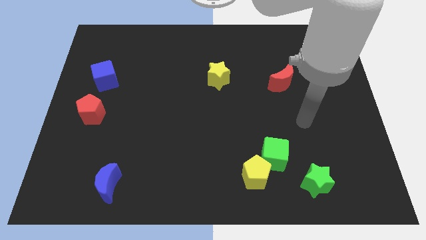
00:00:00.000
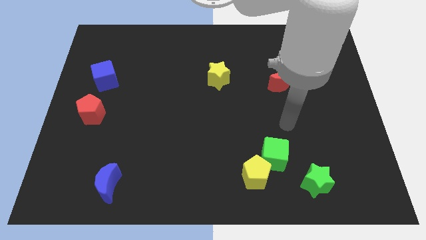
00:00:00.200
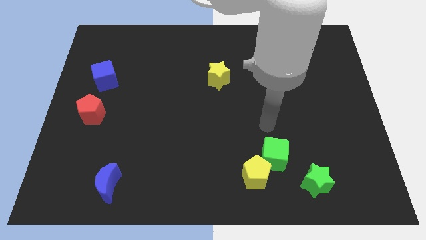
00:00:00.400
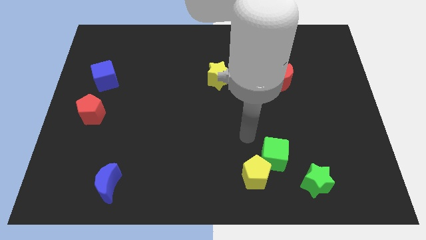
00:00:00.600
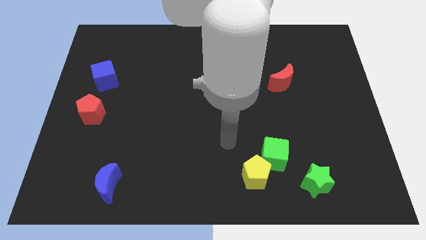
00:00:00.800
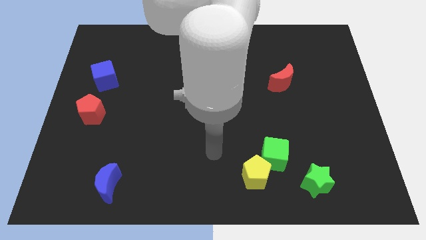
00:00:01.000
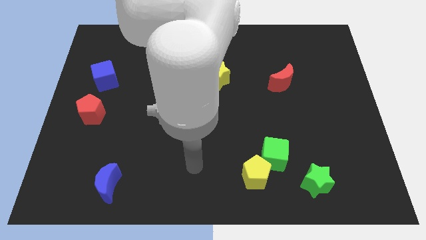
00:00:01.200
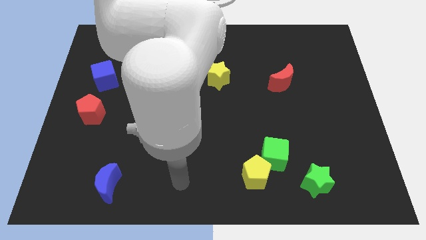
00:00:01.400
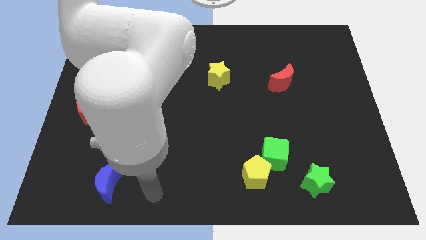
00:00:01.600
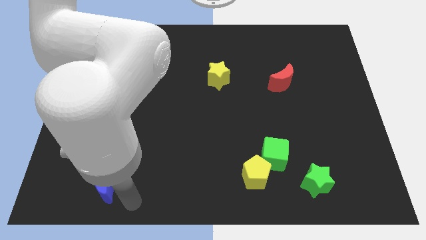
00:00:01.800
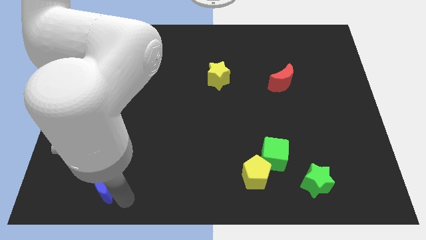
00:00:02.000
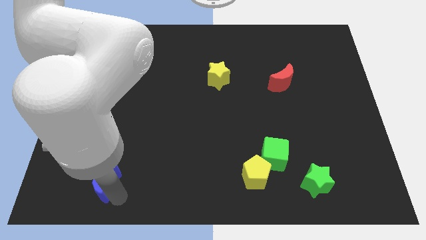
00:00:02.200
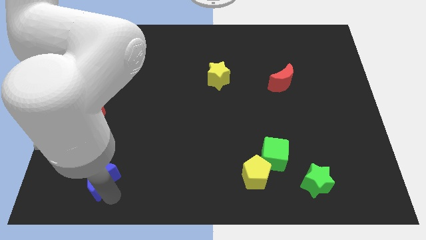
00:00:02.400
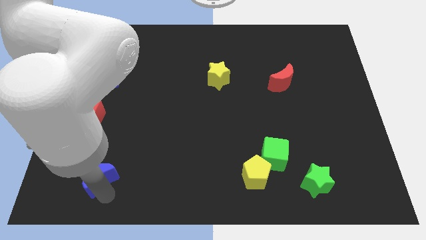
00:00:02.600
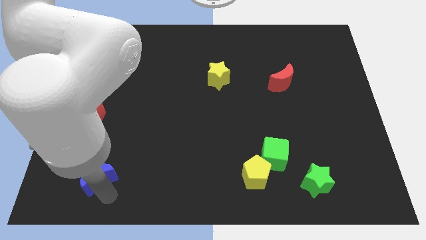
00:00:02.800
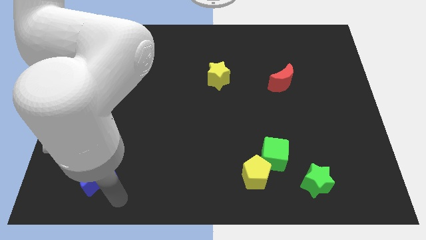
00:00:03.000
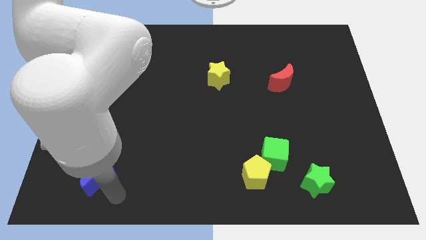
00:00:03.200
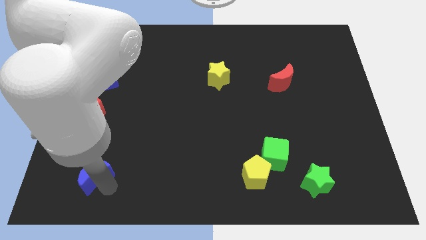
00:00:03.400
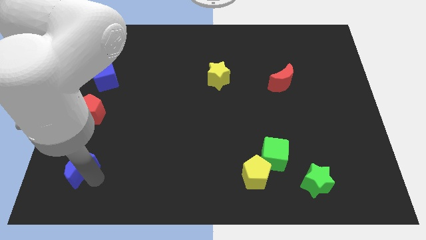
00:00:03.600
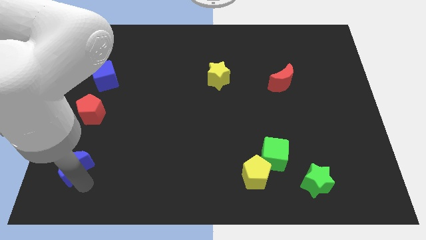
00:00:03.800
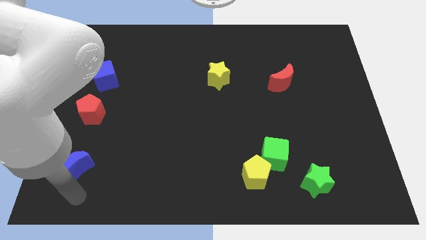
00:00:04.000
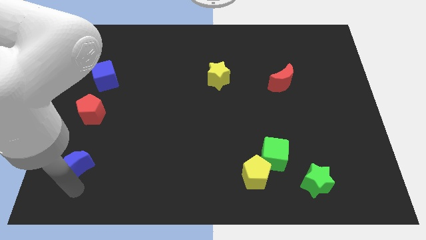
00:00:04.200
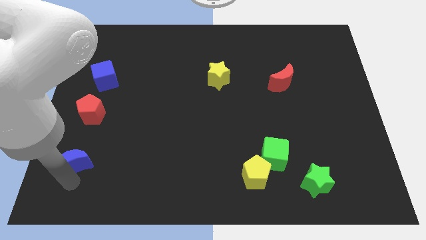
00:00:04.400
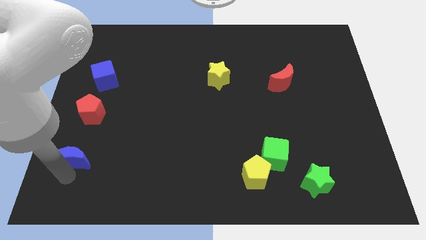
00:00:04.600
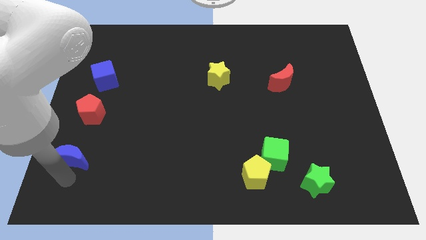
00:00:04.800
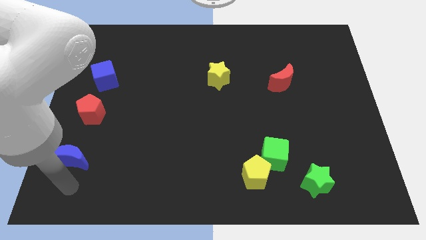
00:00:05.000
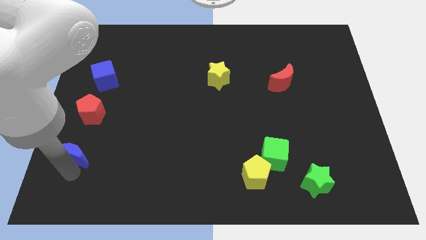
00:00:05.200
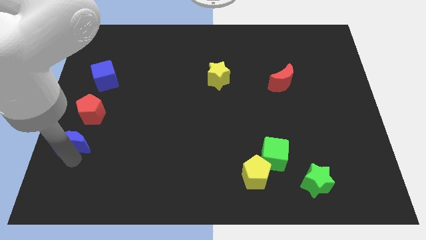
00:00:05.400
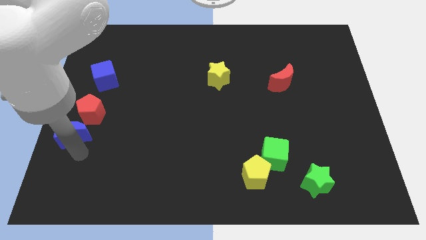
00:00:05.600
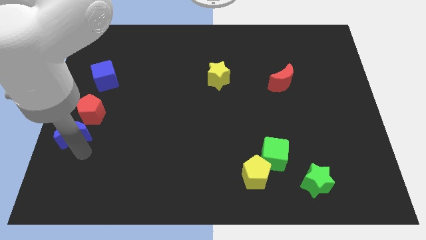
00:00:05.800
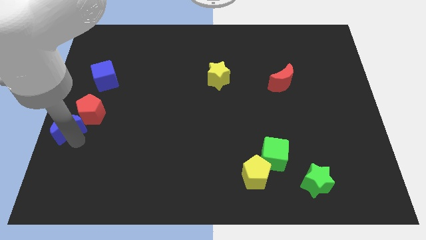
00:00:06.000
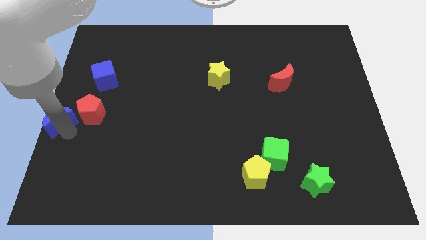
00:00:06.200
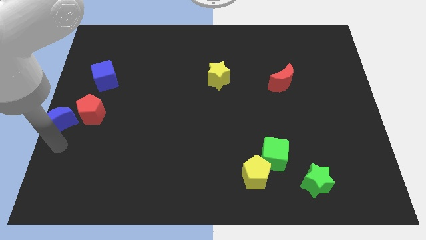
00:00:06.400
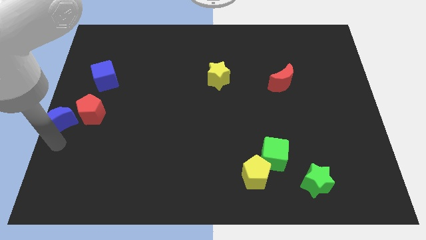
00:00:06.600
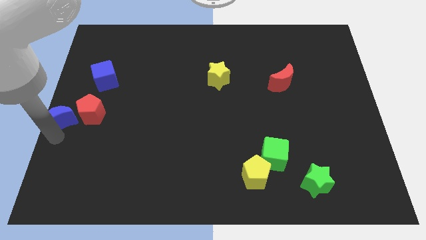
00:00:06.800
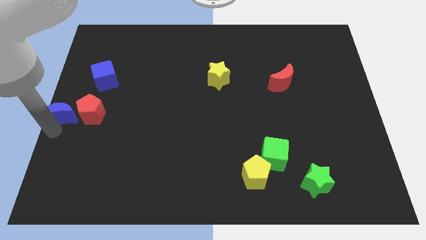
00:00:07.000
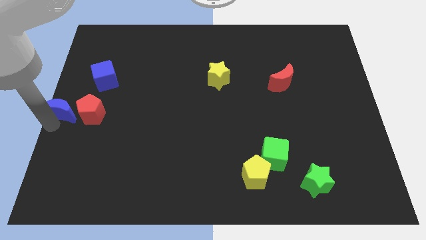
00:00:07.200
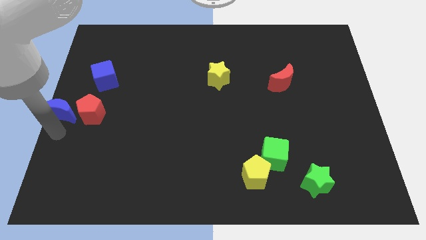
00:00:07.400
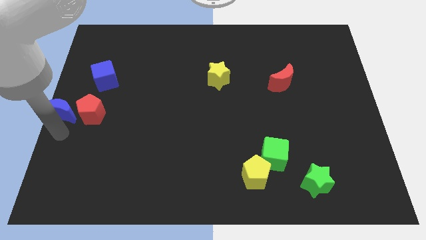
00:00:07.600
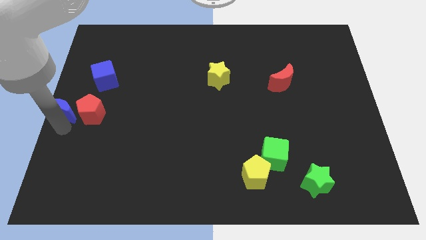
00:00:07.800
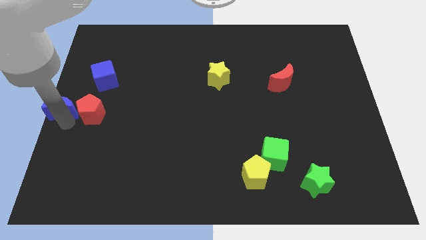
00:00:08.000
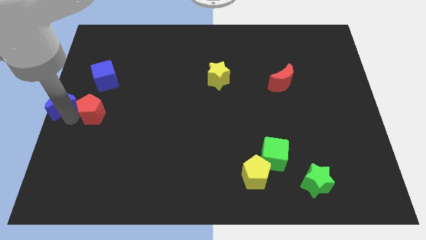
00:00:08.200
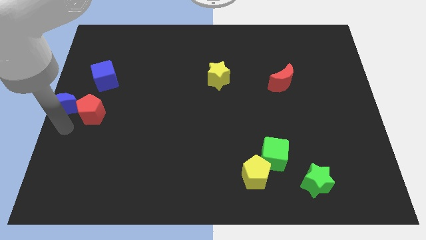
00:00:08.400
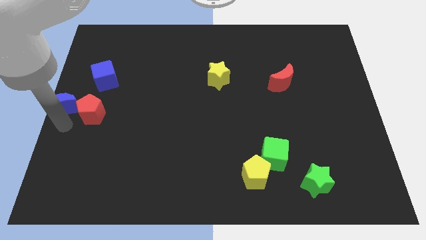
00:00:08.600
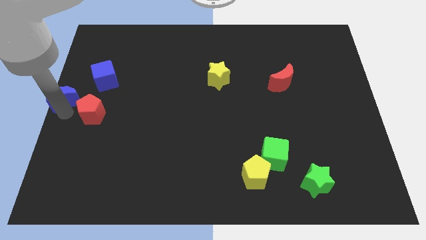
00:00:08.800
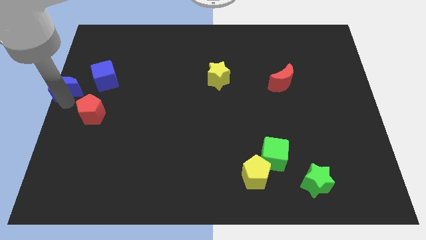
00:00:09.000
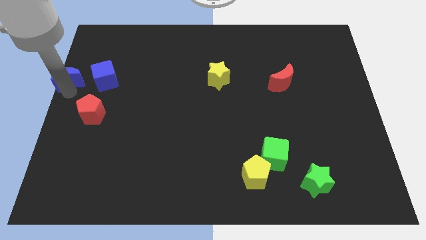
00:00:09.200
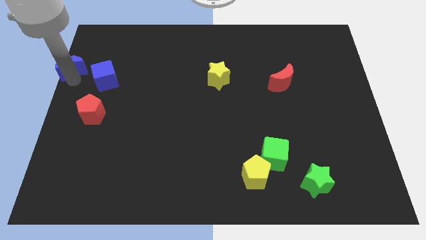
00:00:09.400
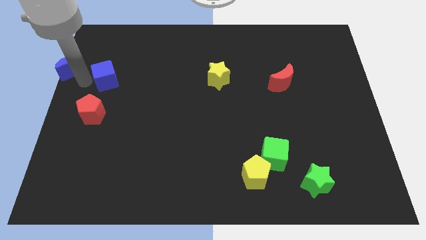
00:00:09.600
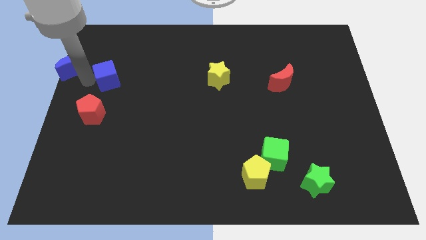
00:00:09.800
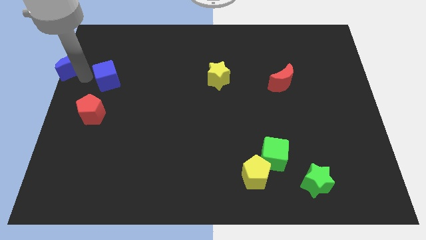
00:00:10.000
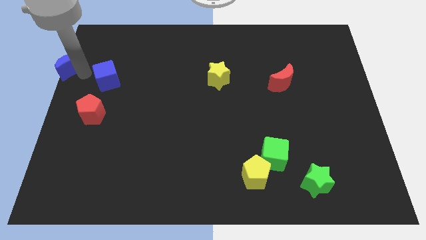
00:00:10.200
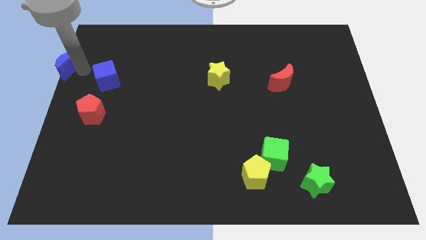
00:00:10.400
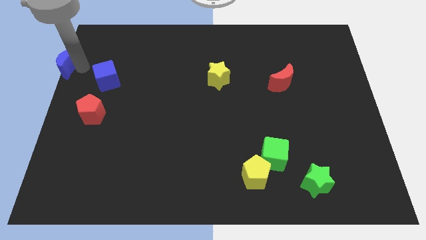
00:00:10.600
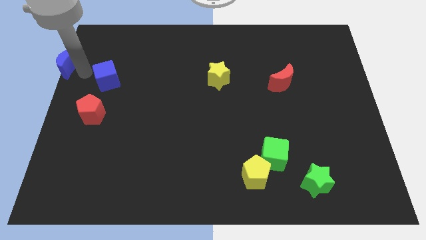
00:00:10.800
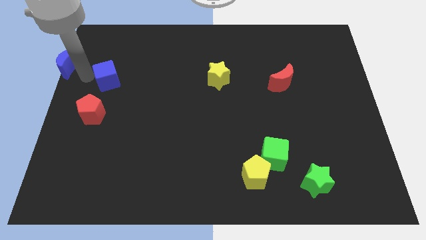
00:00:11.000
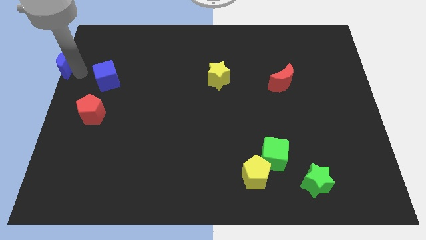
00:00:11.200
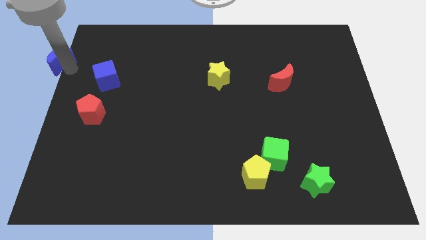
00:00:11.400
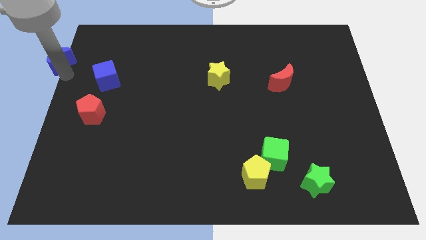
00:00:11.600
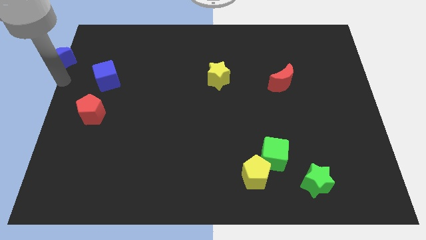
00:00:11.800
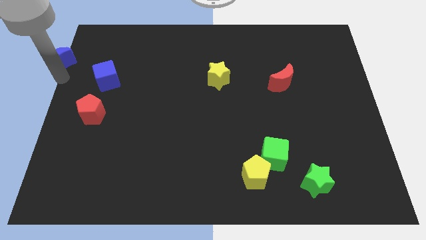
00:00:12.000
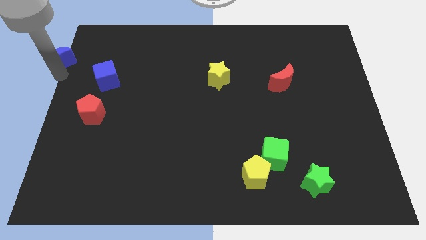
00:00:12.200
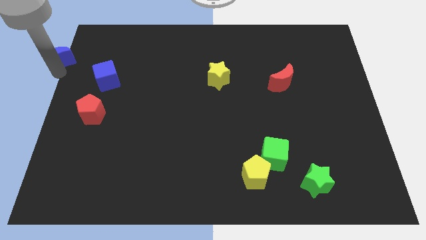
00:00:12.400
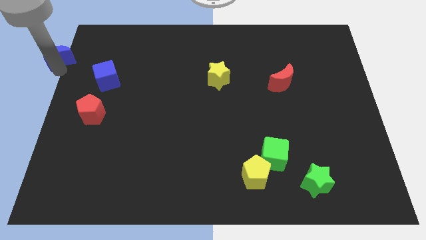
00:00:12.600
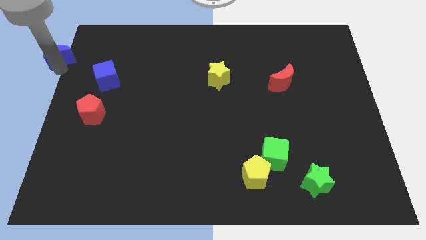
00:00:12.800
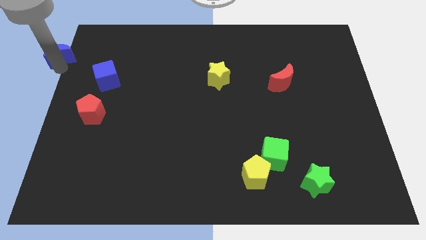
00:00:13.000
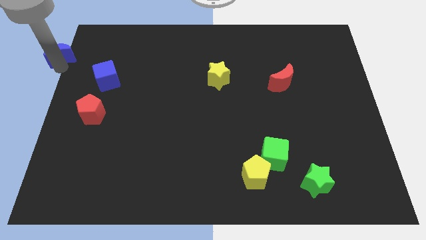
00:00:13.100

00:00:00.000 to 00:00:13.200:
slide the blue moon to the upper left corner

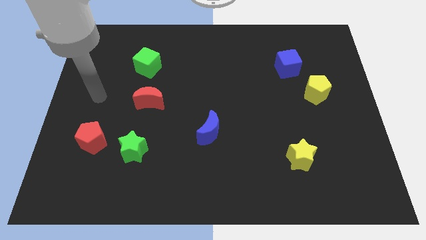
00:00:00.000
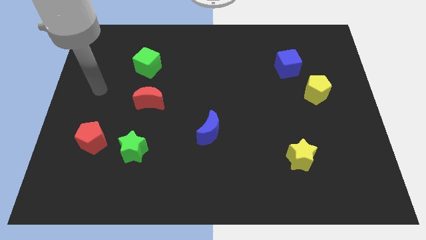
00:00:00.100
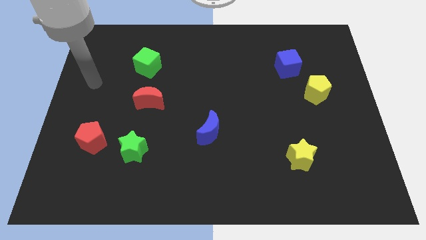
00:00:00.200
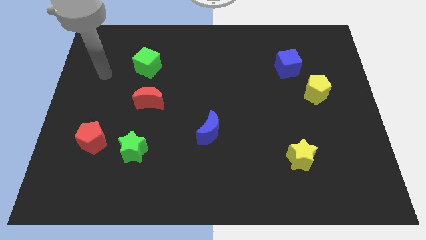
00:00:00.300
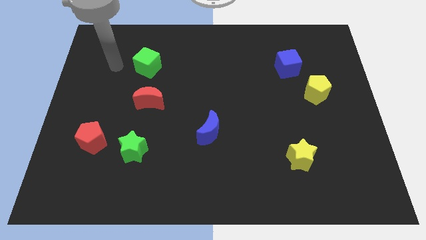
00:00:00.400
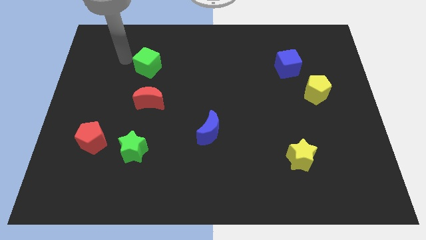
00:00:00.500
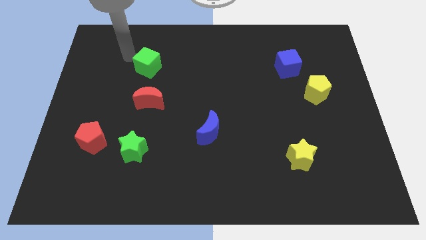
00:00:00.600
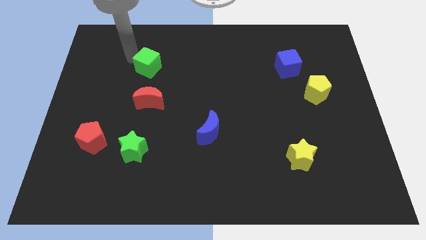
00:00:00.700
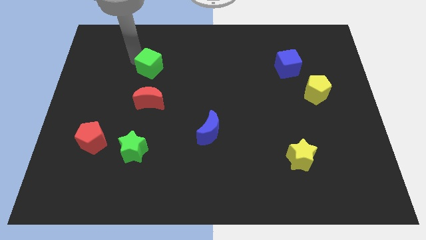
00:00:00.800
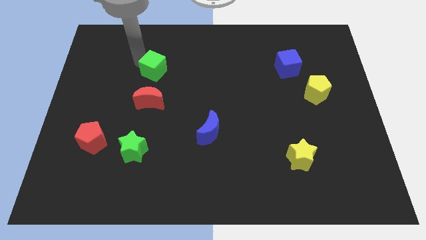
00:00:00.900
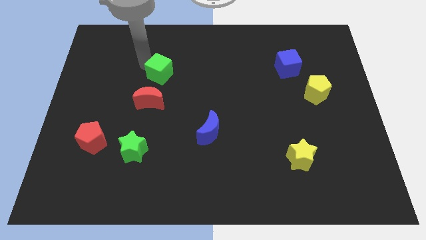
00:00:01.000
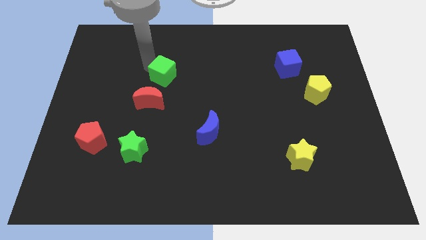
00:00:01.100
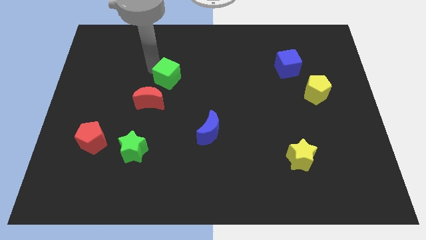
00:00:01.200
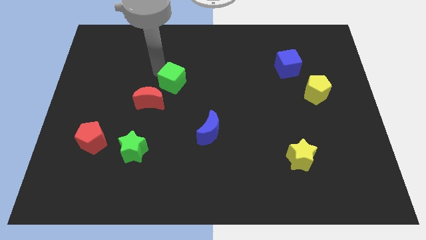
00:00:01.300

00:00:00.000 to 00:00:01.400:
push the green cube to the center of the board

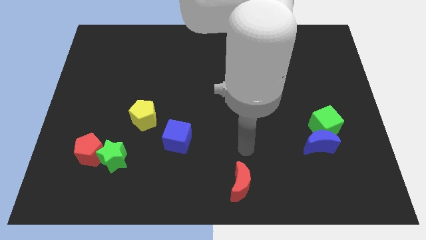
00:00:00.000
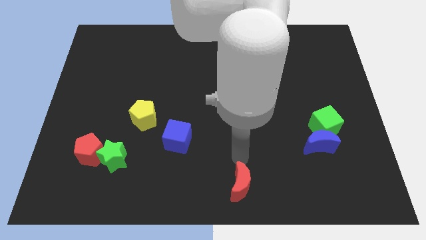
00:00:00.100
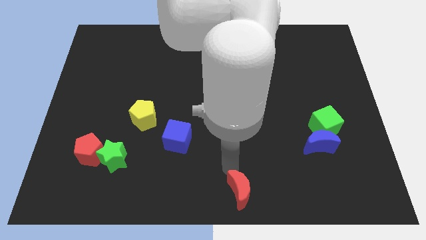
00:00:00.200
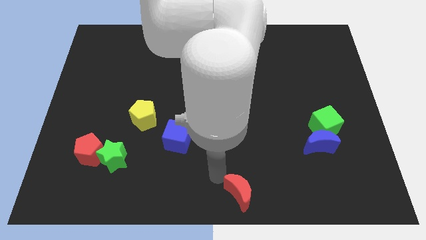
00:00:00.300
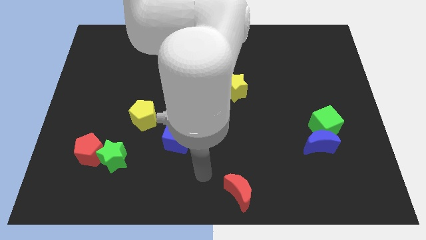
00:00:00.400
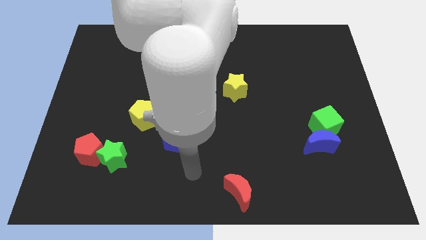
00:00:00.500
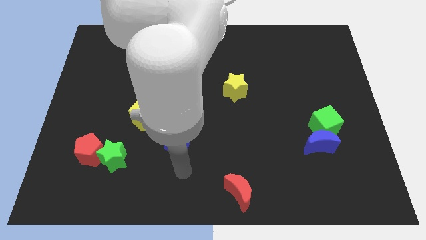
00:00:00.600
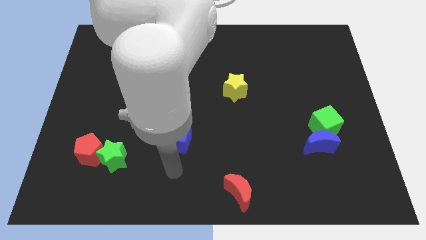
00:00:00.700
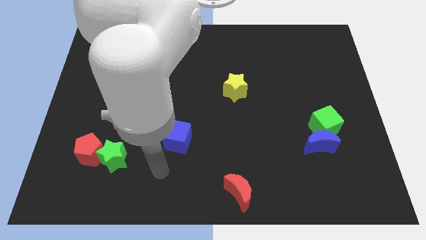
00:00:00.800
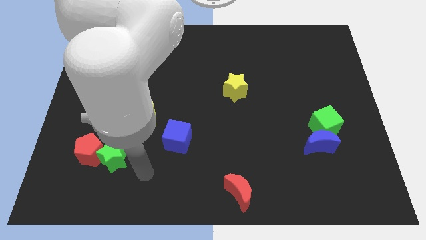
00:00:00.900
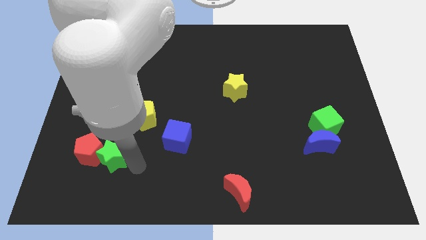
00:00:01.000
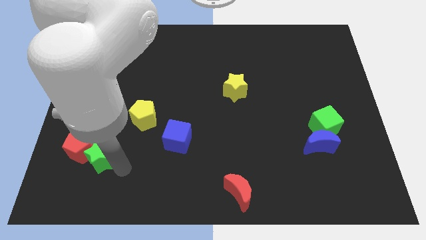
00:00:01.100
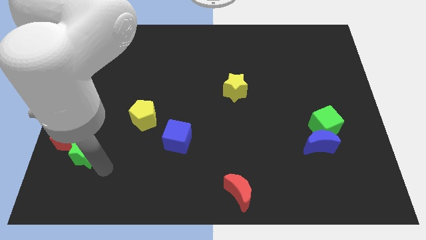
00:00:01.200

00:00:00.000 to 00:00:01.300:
slide the red pentagon to the left side of the board
